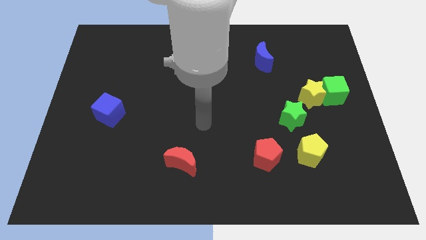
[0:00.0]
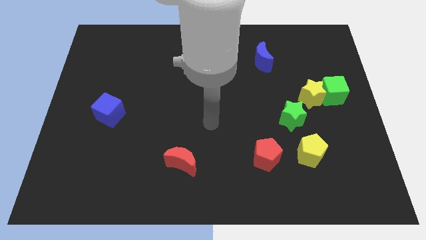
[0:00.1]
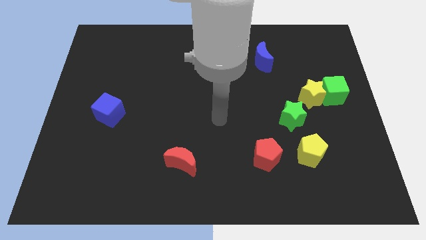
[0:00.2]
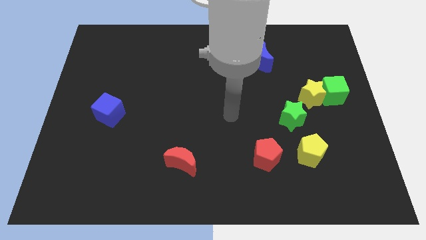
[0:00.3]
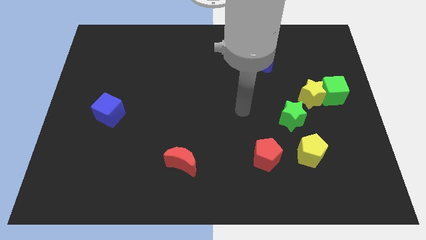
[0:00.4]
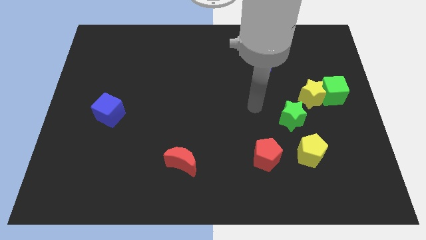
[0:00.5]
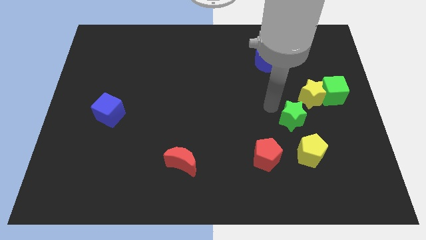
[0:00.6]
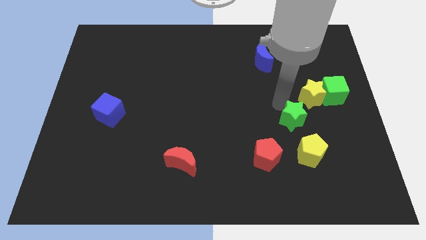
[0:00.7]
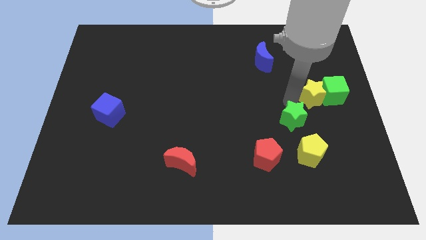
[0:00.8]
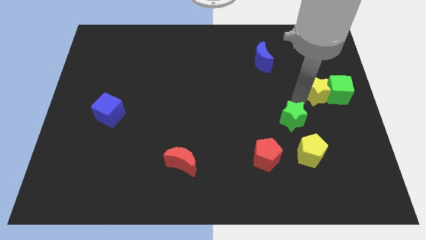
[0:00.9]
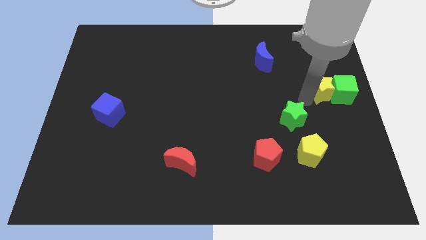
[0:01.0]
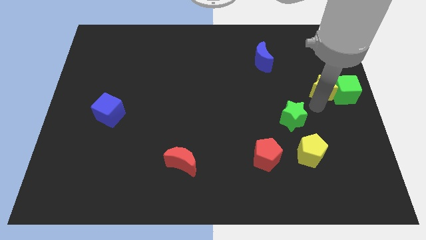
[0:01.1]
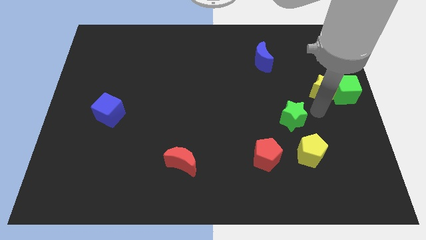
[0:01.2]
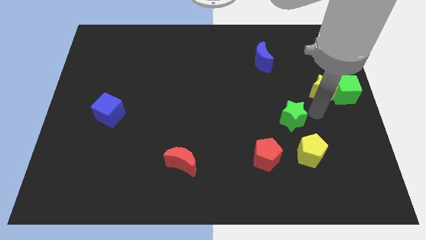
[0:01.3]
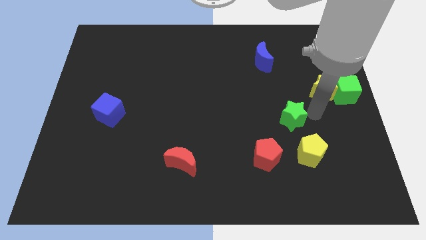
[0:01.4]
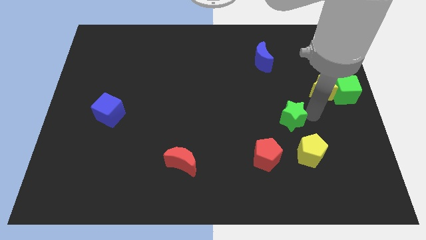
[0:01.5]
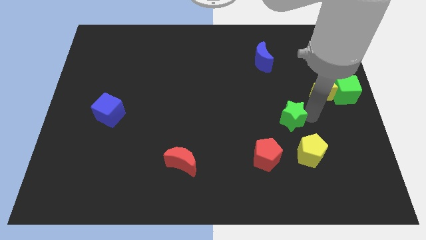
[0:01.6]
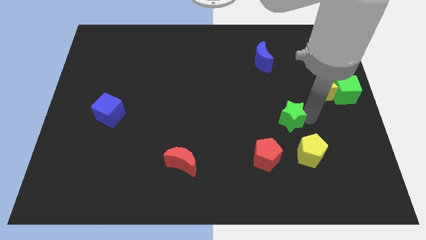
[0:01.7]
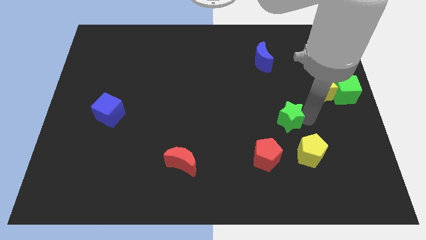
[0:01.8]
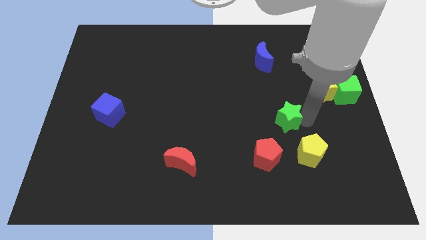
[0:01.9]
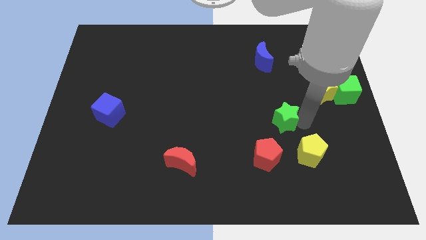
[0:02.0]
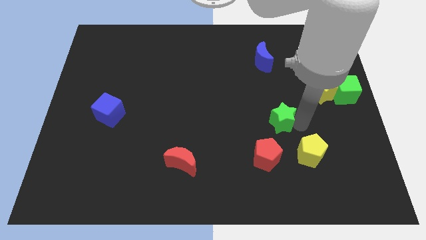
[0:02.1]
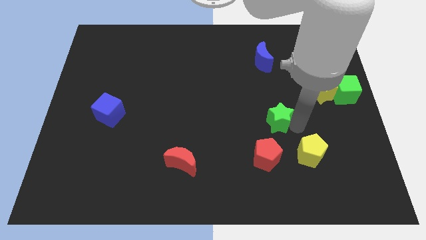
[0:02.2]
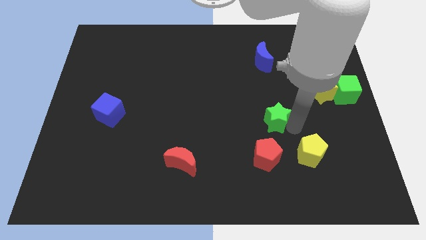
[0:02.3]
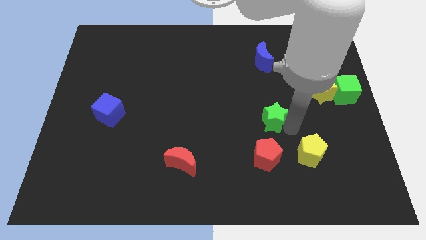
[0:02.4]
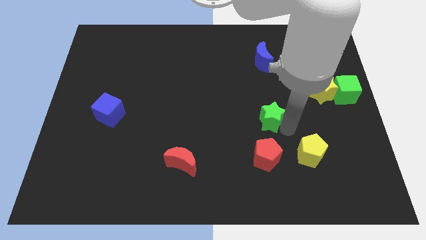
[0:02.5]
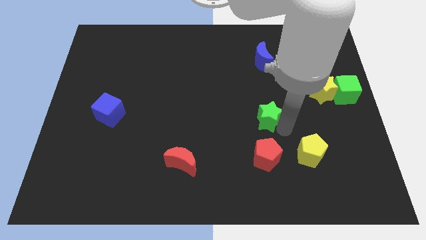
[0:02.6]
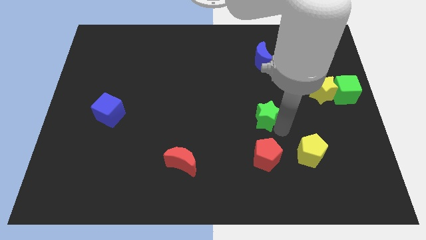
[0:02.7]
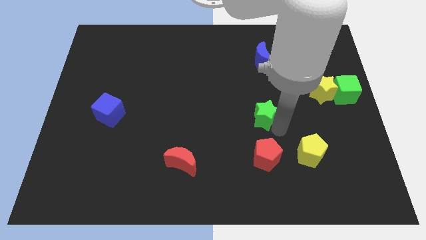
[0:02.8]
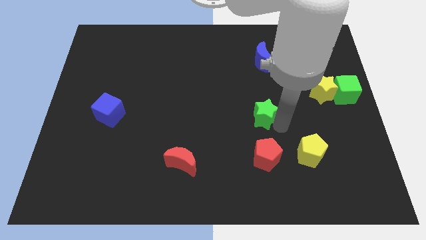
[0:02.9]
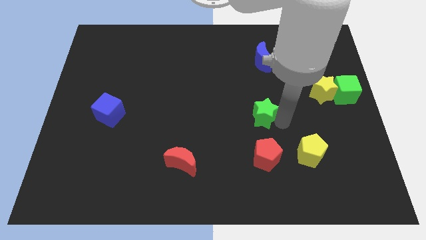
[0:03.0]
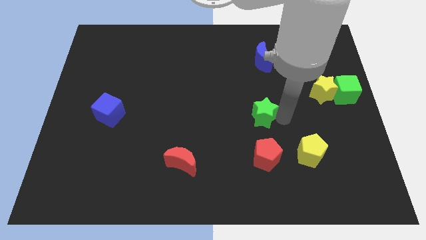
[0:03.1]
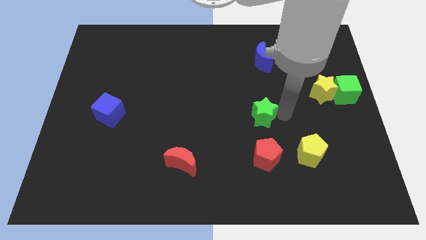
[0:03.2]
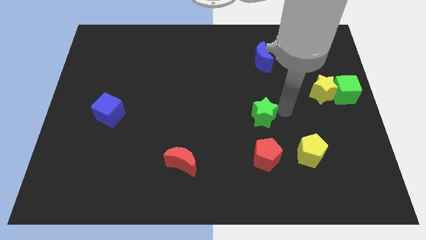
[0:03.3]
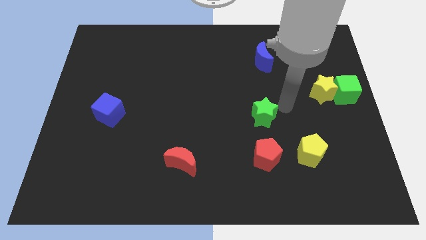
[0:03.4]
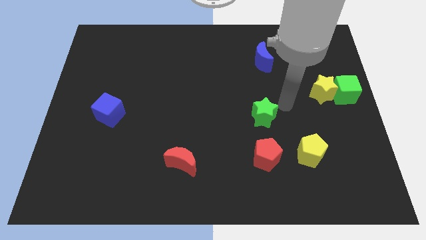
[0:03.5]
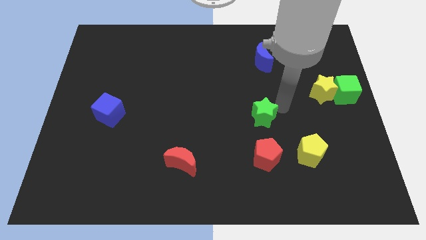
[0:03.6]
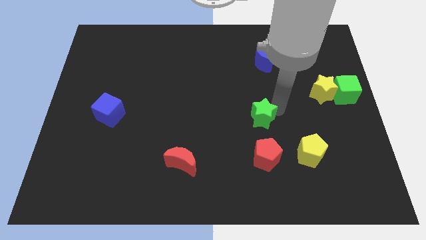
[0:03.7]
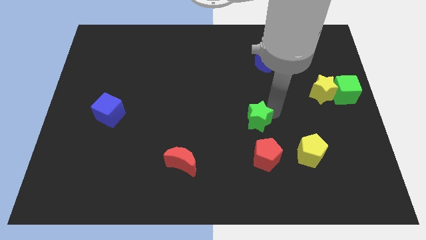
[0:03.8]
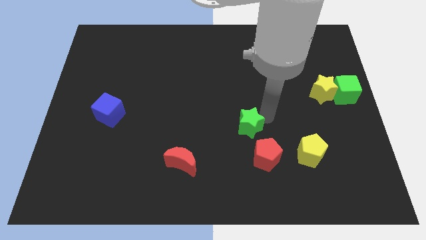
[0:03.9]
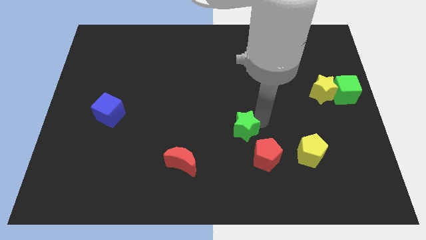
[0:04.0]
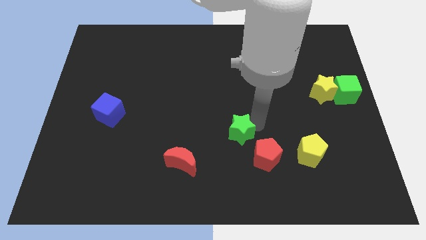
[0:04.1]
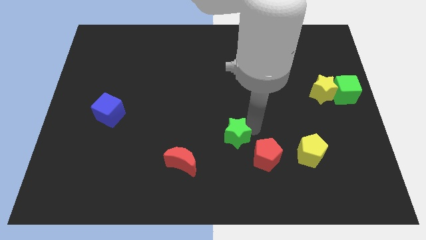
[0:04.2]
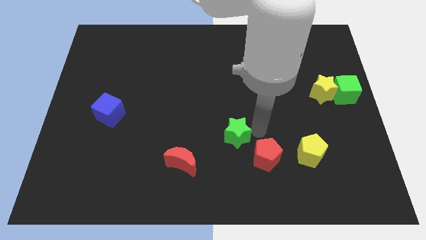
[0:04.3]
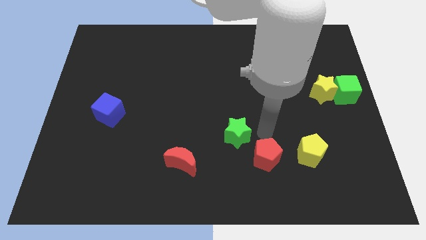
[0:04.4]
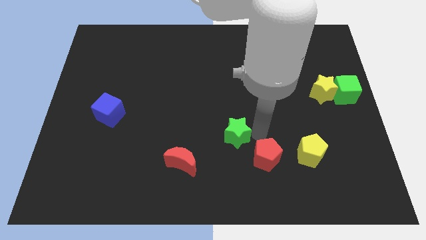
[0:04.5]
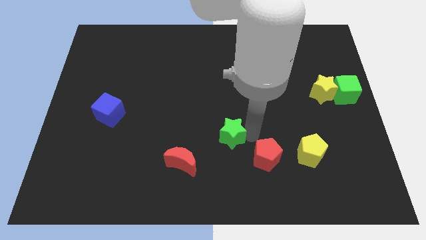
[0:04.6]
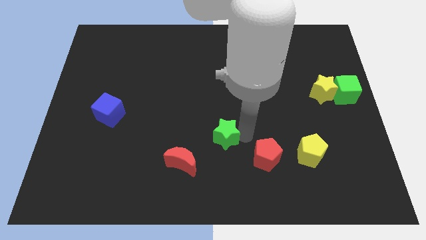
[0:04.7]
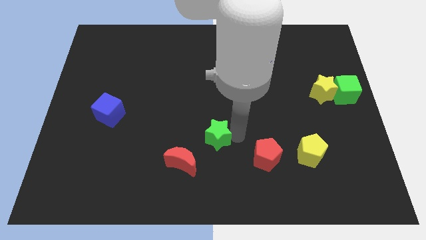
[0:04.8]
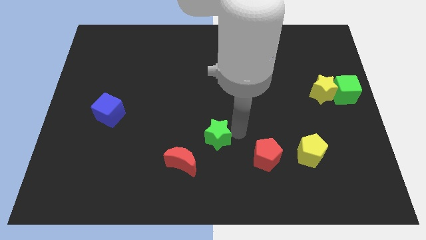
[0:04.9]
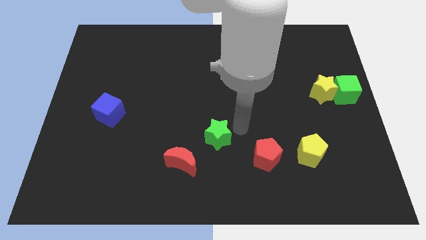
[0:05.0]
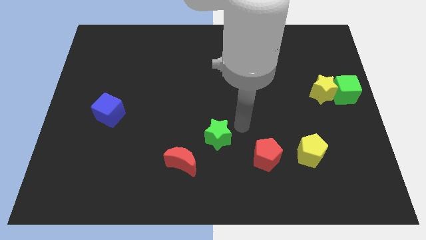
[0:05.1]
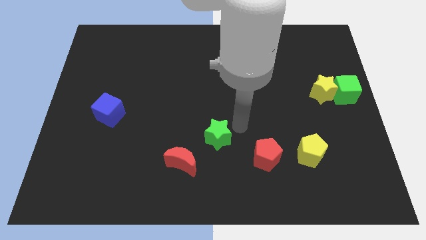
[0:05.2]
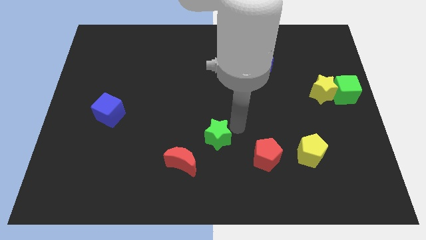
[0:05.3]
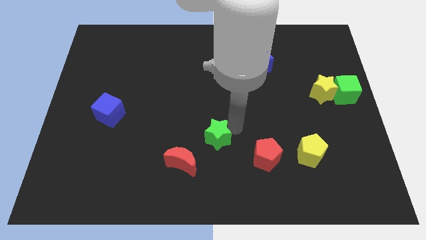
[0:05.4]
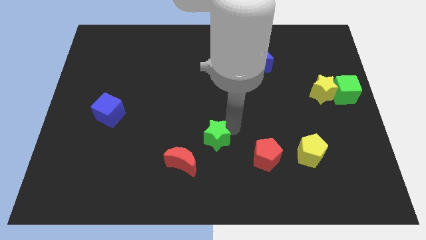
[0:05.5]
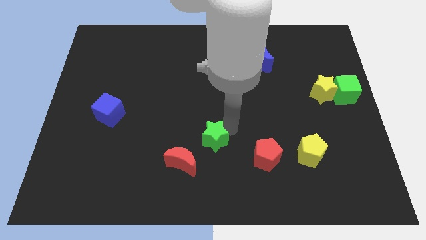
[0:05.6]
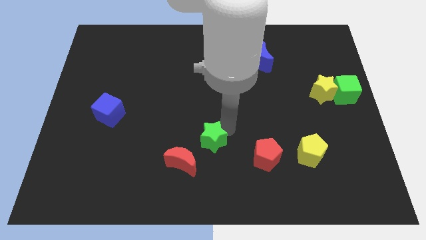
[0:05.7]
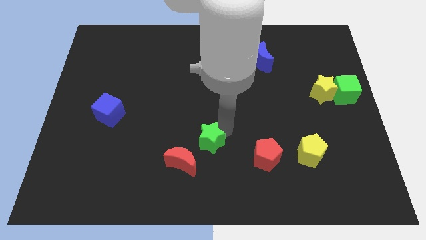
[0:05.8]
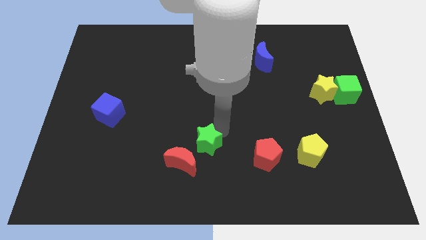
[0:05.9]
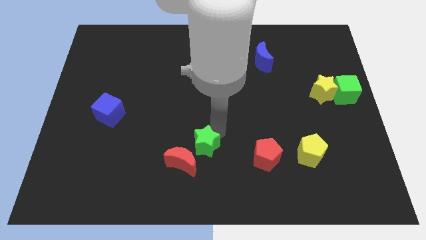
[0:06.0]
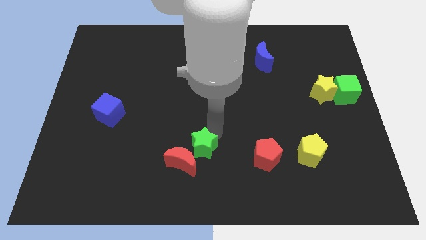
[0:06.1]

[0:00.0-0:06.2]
push the green star towards the red moon
